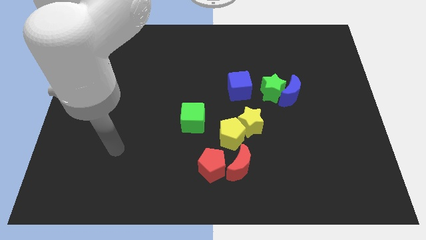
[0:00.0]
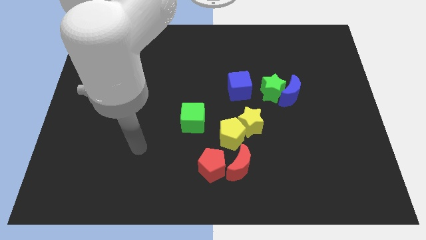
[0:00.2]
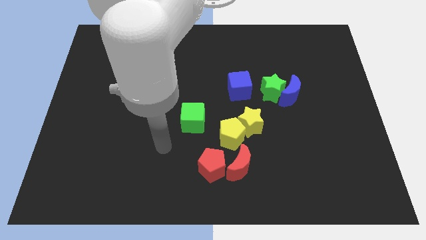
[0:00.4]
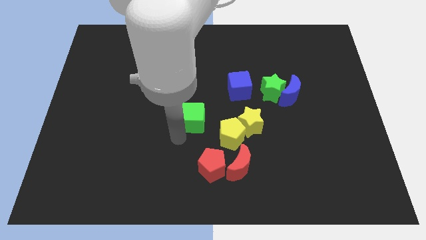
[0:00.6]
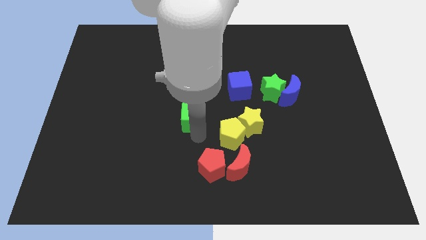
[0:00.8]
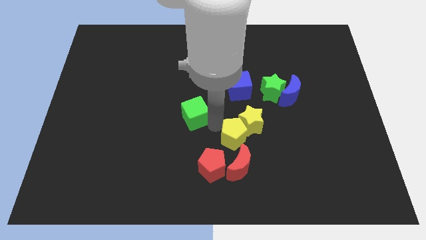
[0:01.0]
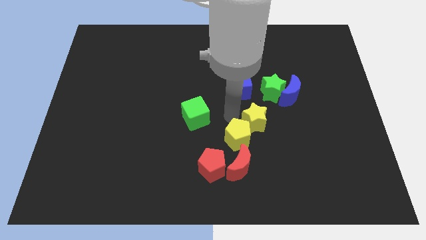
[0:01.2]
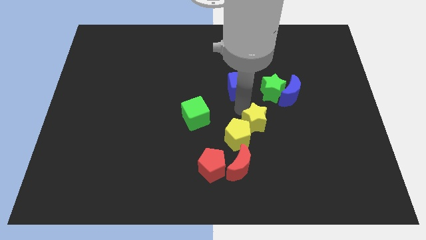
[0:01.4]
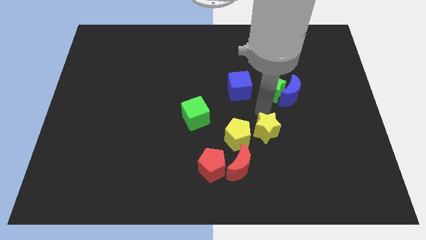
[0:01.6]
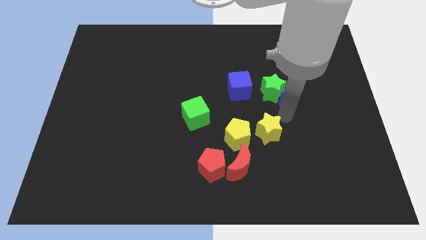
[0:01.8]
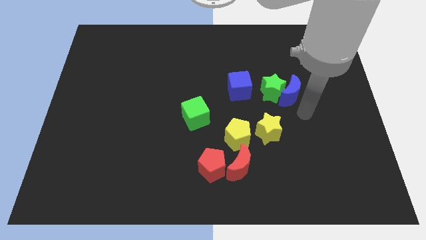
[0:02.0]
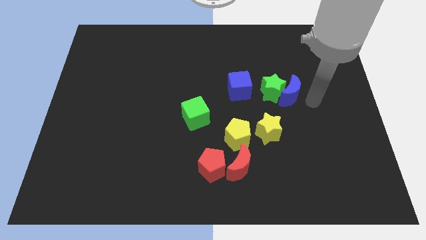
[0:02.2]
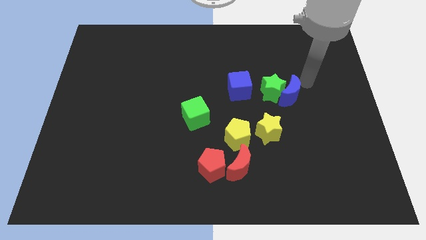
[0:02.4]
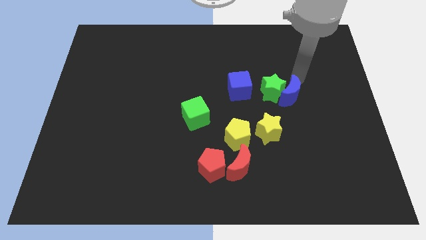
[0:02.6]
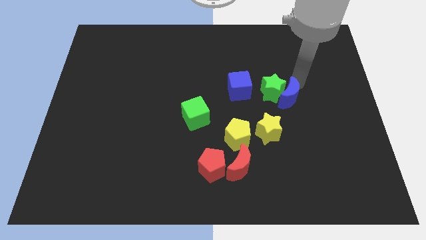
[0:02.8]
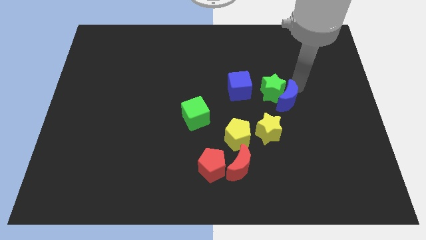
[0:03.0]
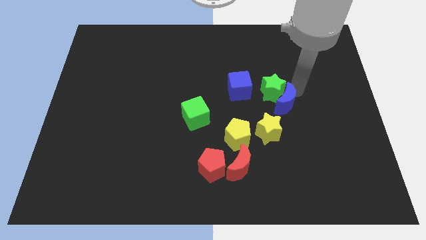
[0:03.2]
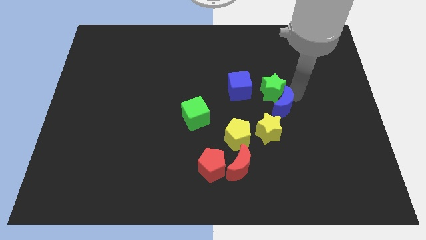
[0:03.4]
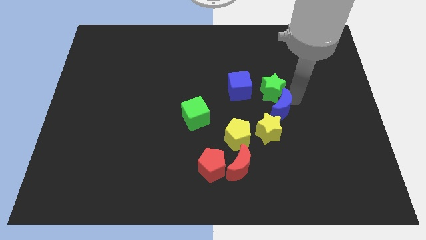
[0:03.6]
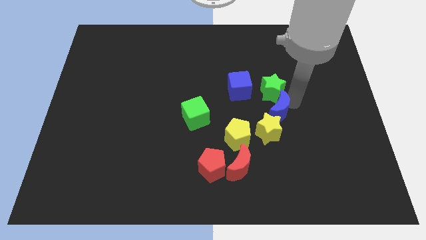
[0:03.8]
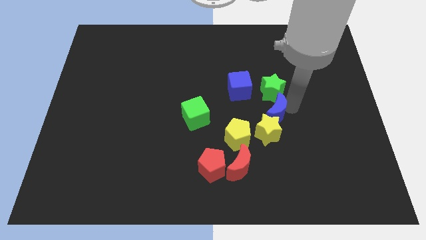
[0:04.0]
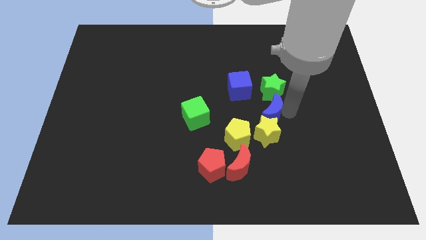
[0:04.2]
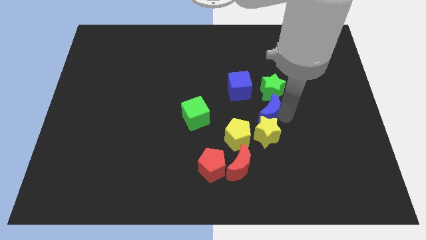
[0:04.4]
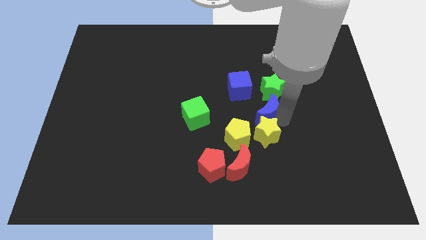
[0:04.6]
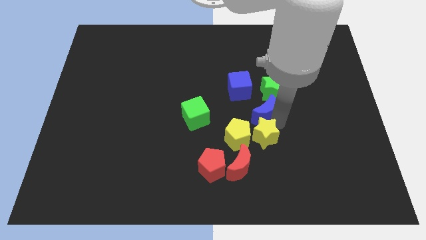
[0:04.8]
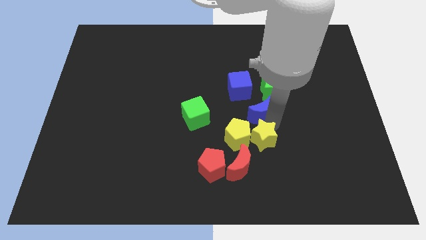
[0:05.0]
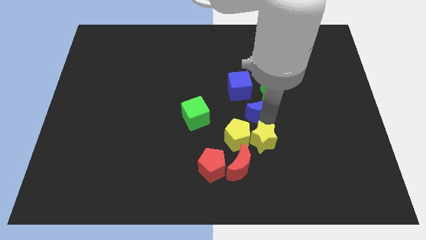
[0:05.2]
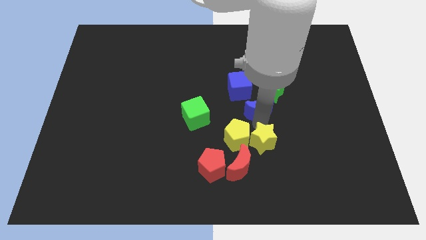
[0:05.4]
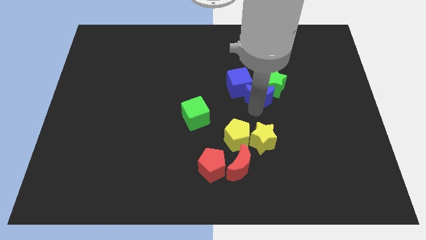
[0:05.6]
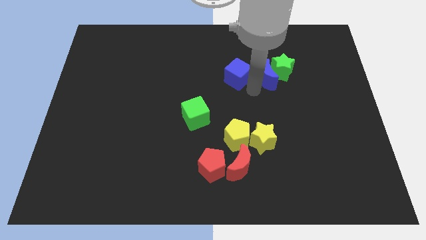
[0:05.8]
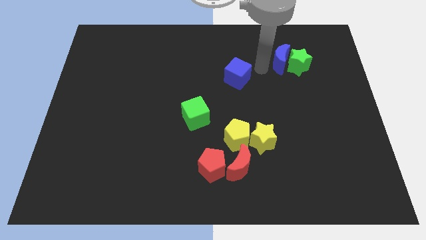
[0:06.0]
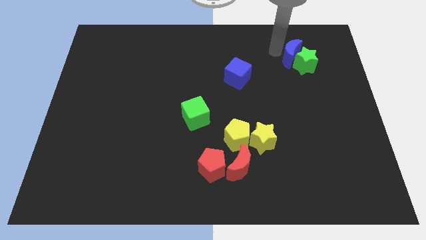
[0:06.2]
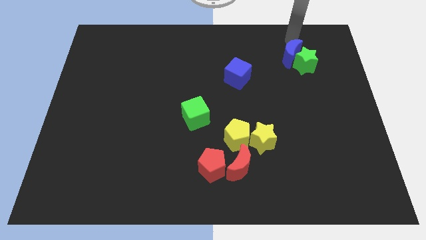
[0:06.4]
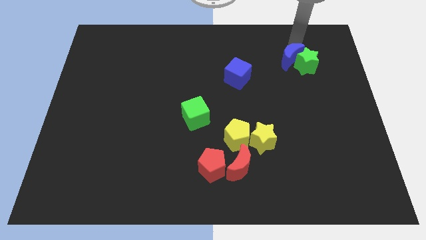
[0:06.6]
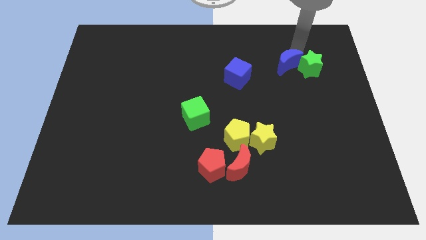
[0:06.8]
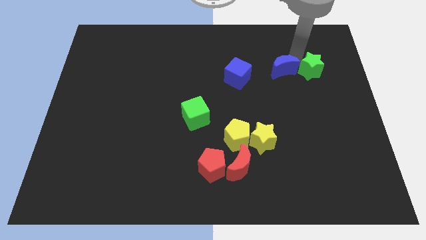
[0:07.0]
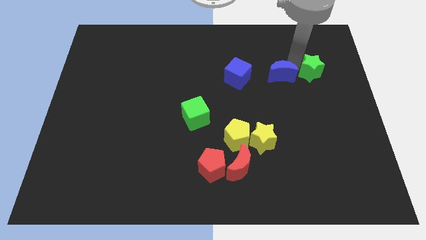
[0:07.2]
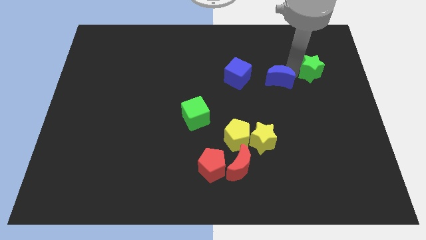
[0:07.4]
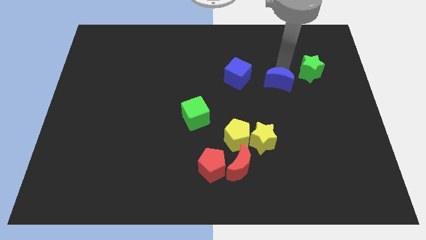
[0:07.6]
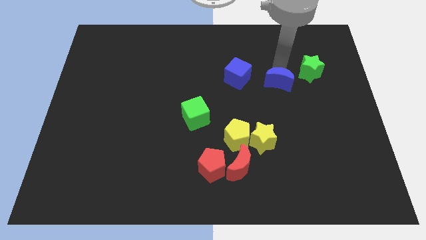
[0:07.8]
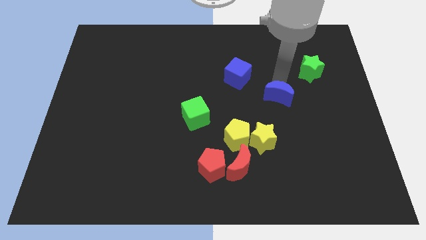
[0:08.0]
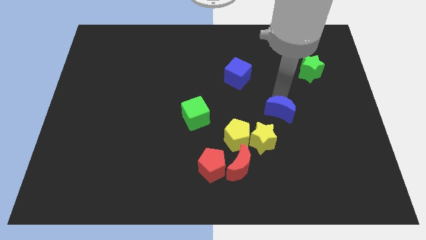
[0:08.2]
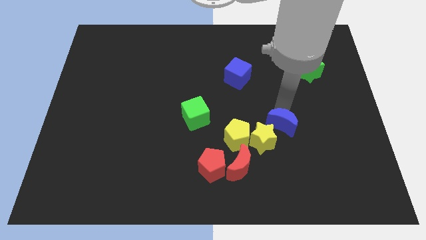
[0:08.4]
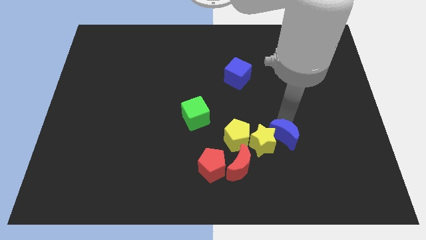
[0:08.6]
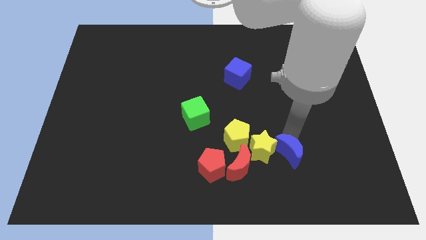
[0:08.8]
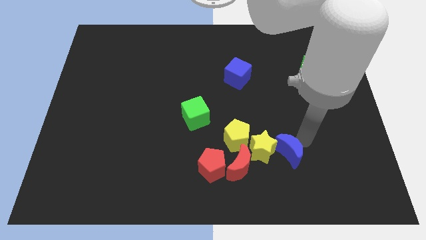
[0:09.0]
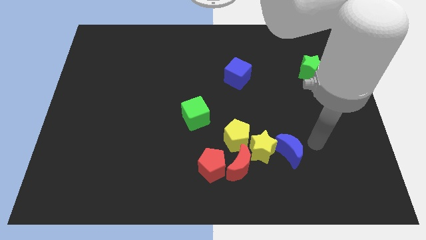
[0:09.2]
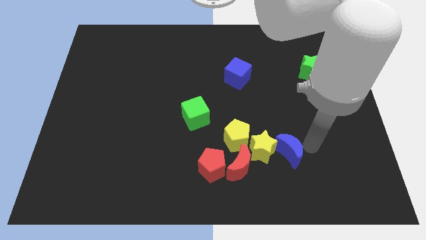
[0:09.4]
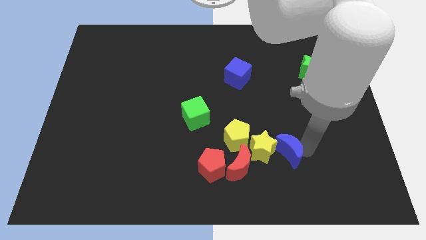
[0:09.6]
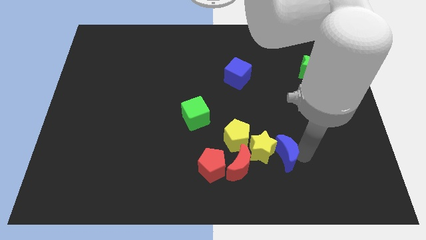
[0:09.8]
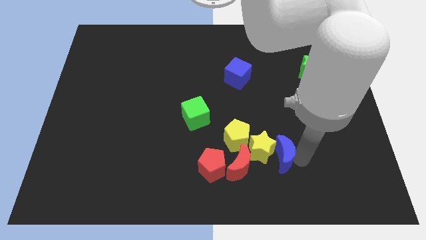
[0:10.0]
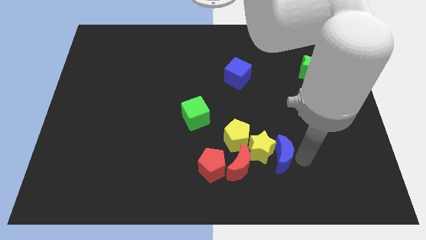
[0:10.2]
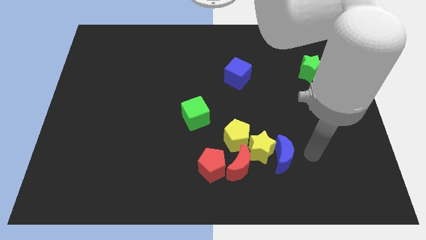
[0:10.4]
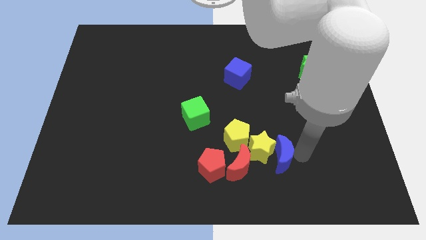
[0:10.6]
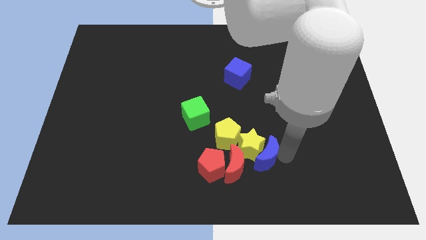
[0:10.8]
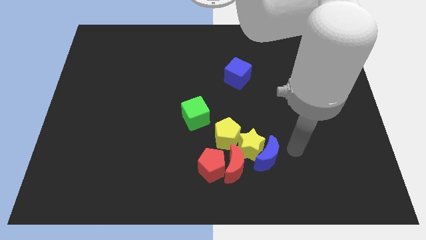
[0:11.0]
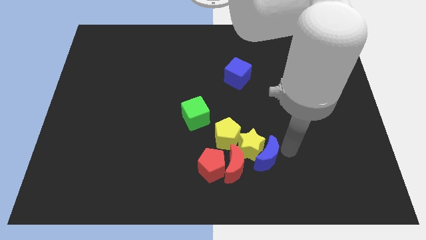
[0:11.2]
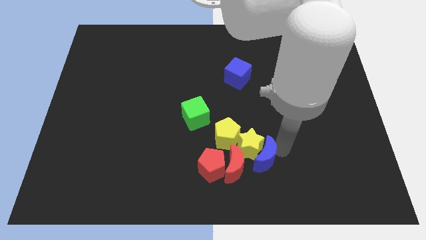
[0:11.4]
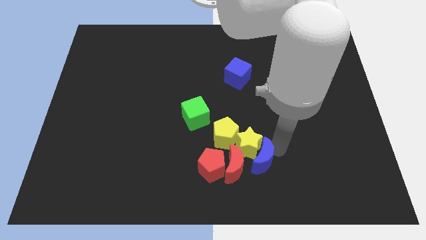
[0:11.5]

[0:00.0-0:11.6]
slide the blue moon to the red moon

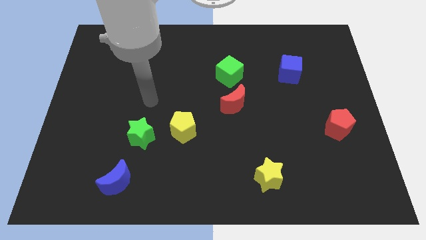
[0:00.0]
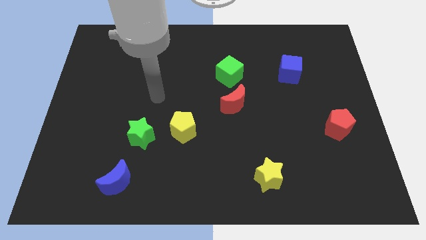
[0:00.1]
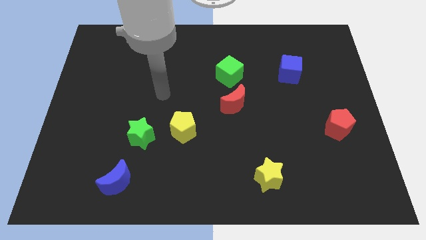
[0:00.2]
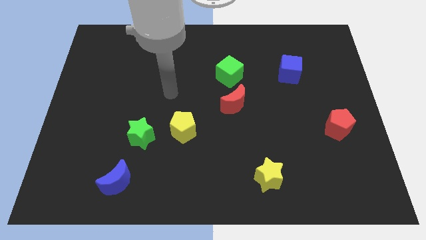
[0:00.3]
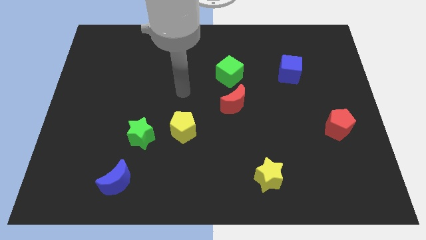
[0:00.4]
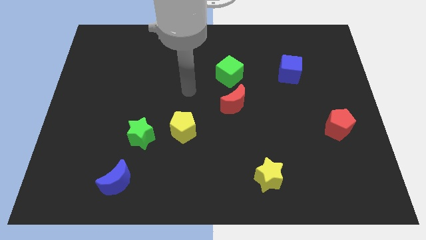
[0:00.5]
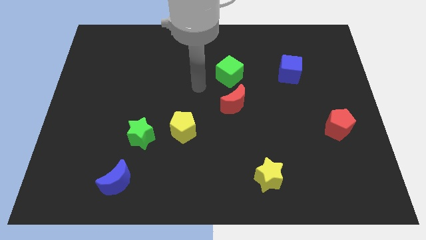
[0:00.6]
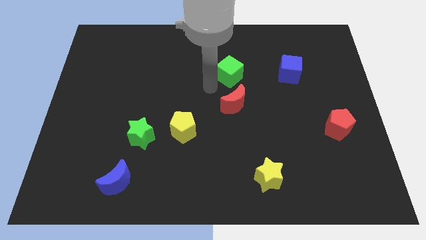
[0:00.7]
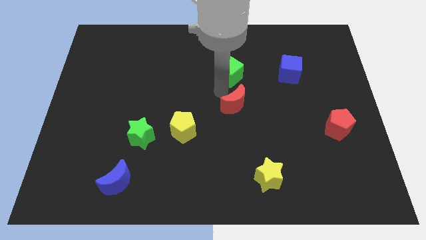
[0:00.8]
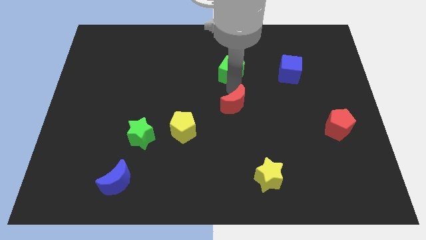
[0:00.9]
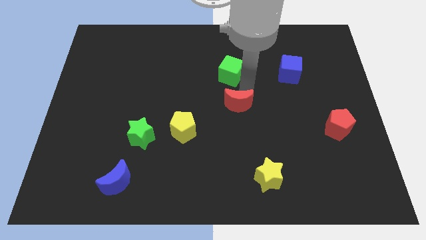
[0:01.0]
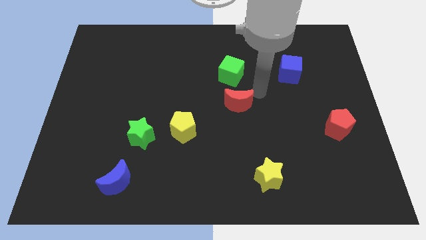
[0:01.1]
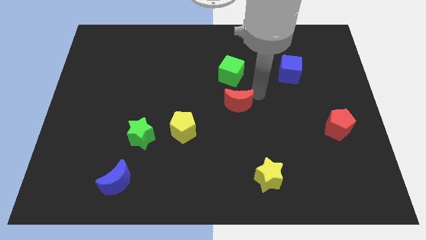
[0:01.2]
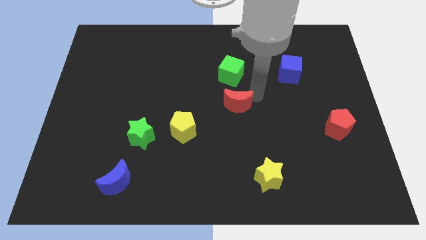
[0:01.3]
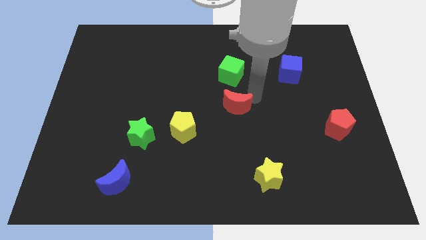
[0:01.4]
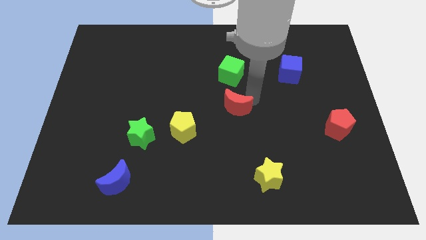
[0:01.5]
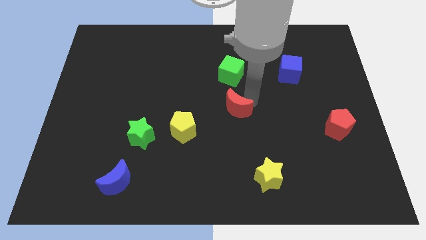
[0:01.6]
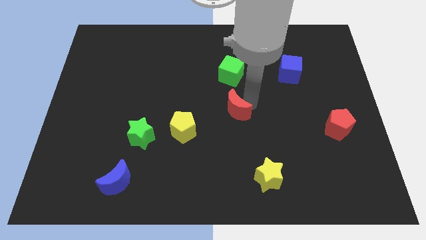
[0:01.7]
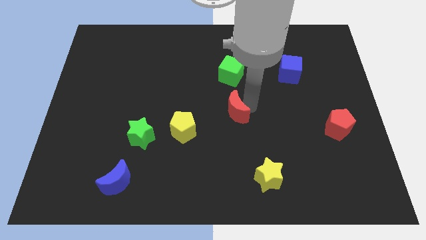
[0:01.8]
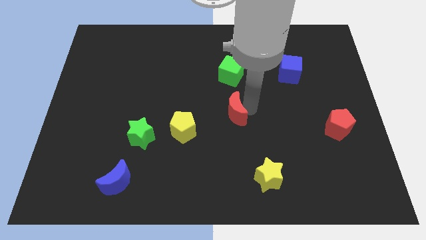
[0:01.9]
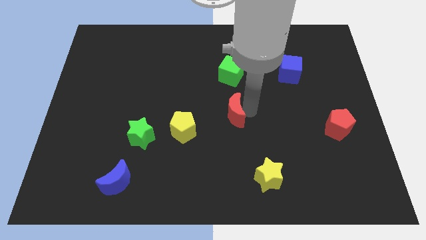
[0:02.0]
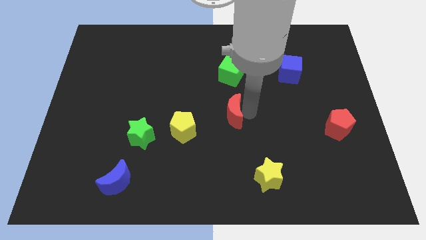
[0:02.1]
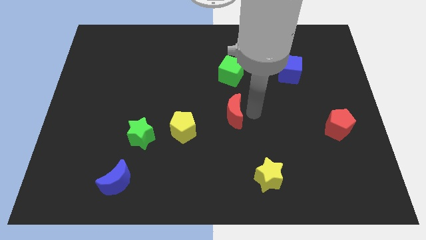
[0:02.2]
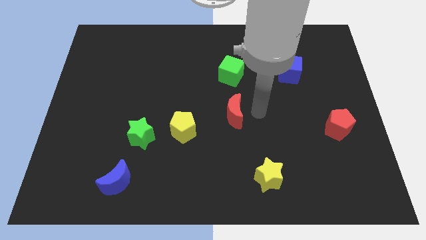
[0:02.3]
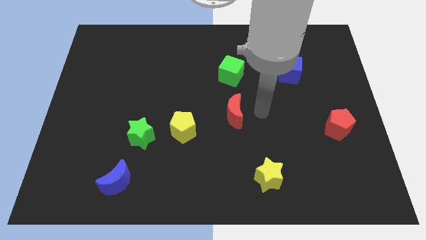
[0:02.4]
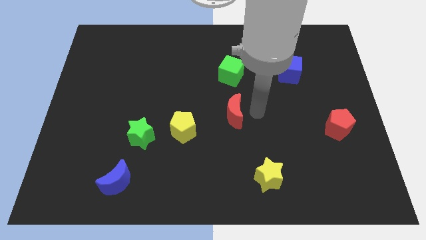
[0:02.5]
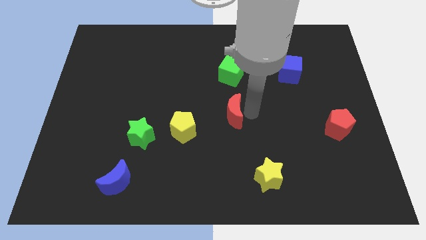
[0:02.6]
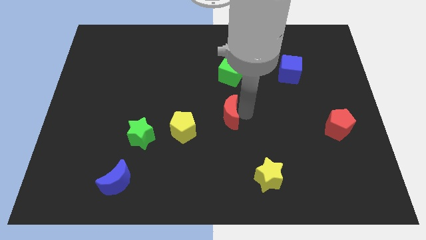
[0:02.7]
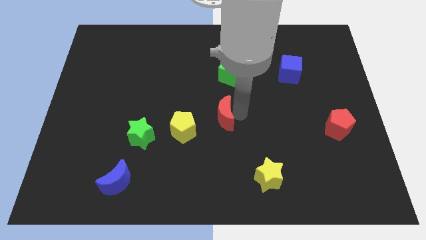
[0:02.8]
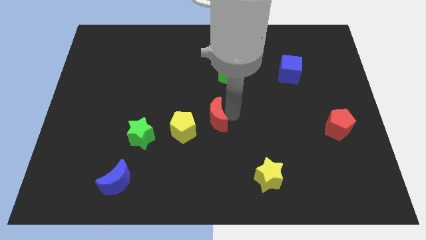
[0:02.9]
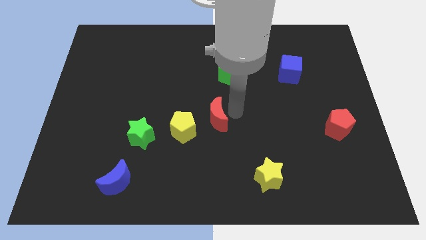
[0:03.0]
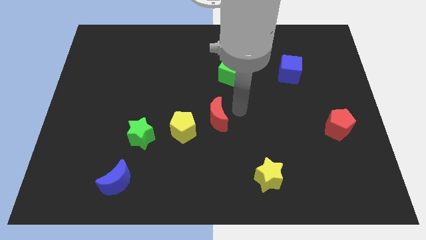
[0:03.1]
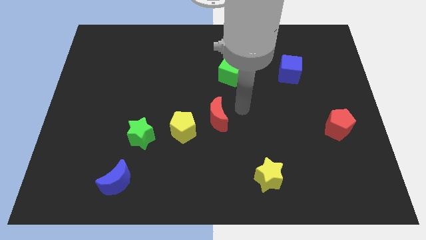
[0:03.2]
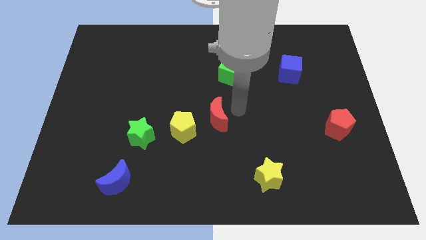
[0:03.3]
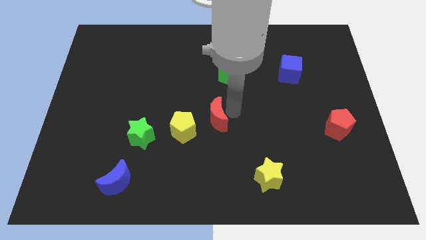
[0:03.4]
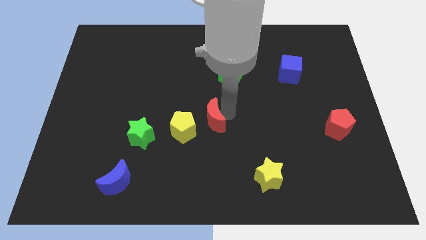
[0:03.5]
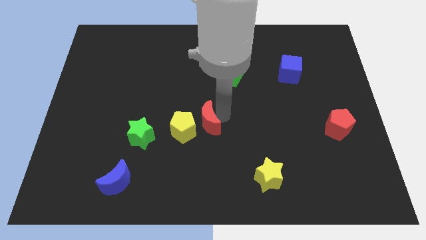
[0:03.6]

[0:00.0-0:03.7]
slide the red moon close to the yellow pentagon
